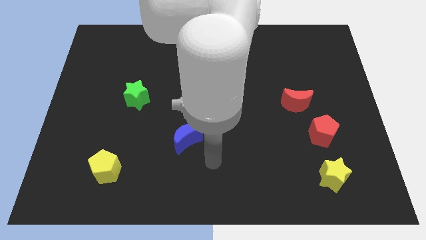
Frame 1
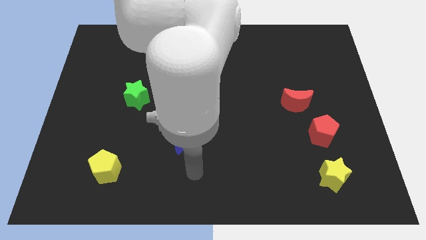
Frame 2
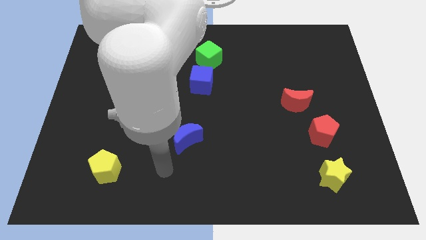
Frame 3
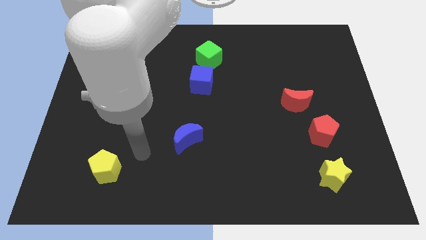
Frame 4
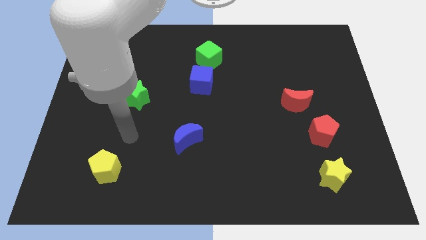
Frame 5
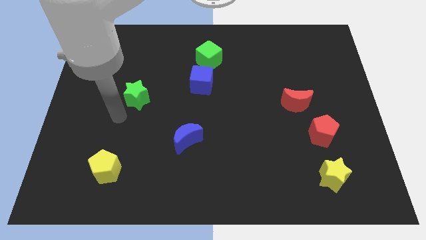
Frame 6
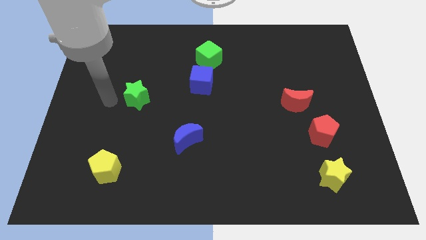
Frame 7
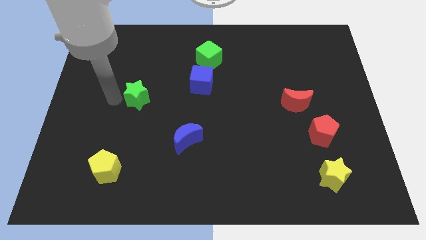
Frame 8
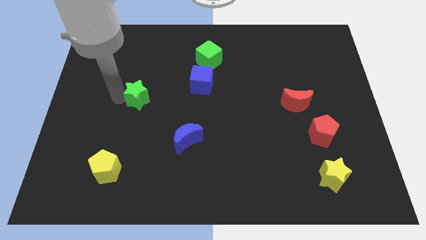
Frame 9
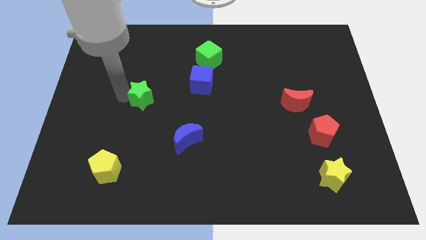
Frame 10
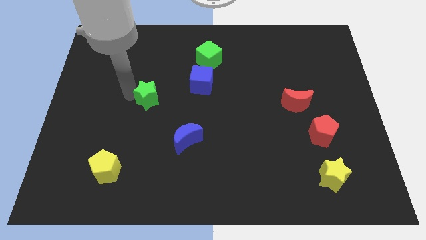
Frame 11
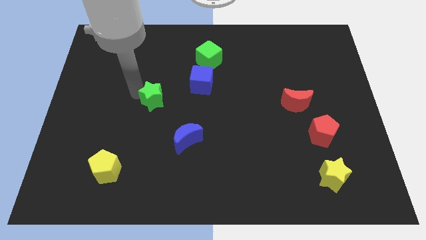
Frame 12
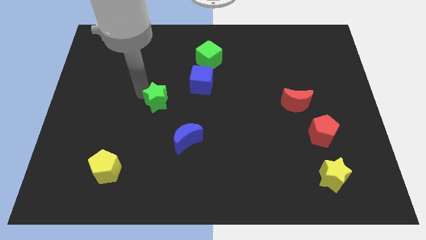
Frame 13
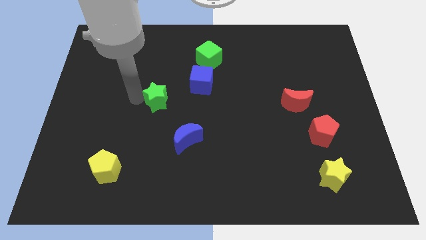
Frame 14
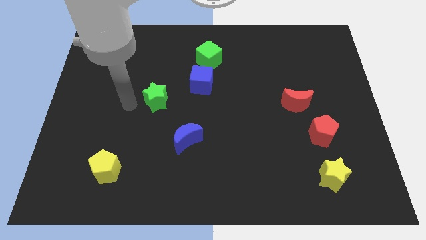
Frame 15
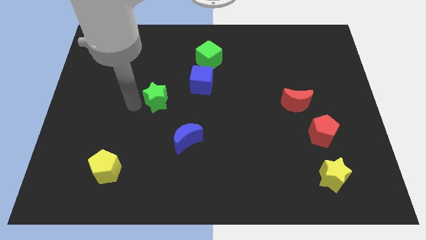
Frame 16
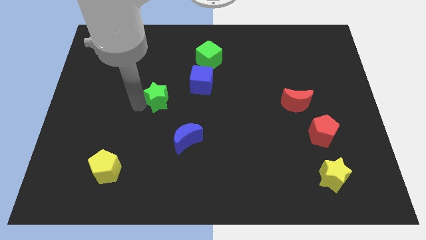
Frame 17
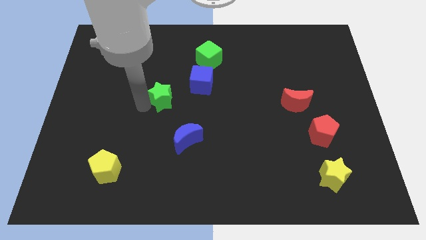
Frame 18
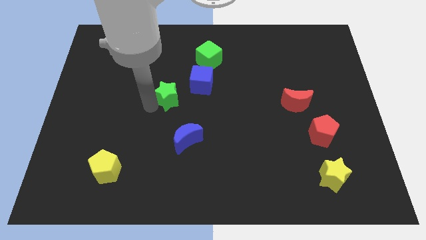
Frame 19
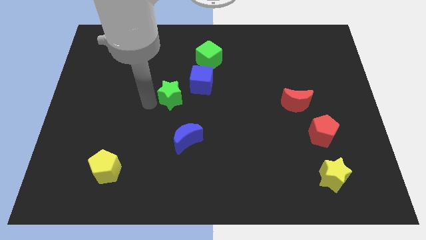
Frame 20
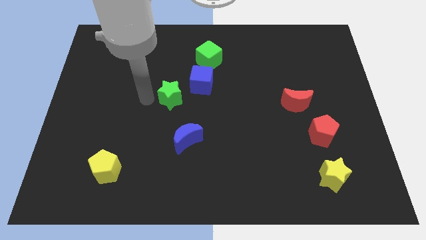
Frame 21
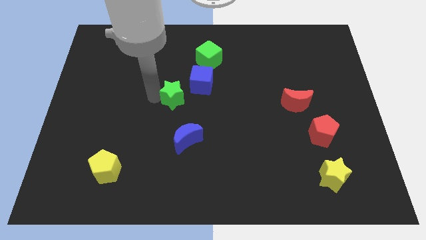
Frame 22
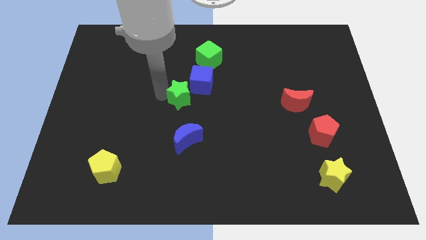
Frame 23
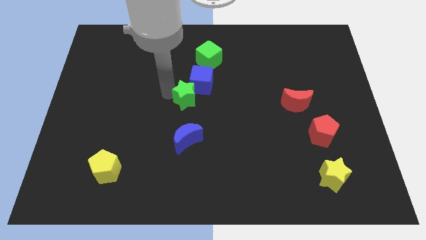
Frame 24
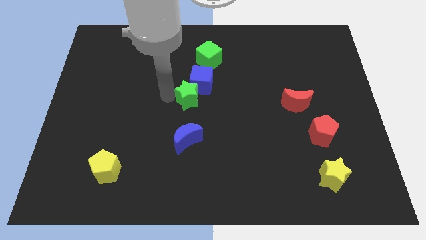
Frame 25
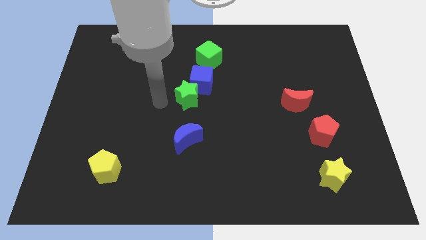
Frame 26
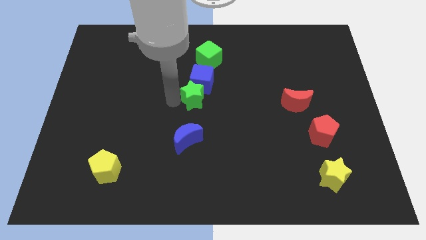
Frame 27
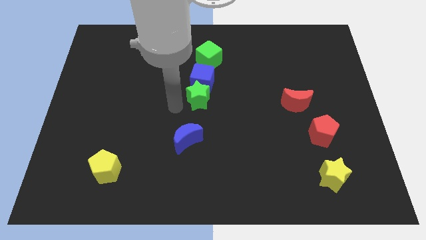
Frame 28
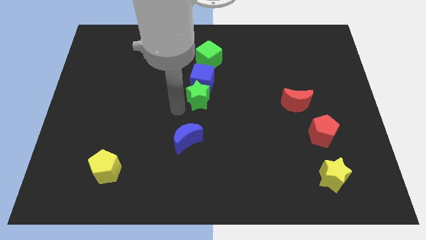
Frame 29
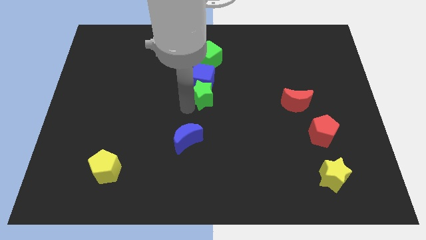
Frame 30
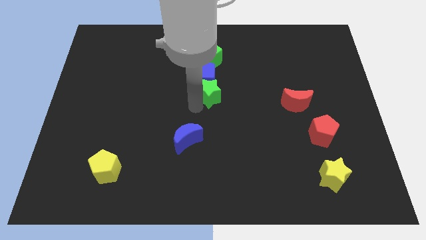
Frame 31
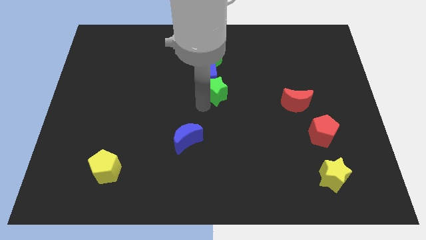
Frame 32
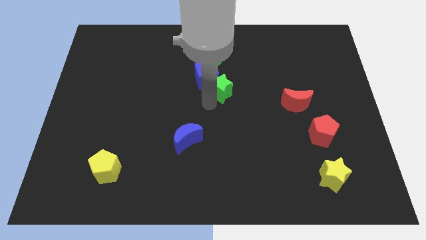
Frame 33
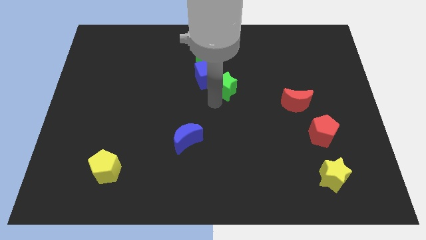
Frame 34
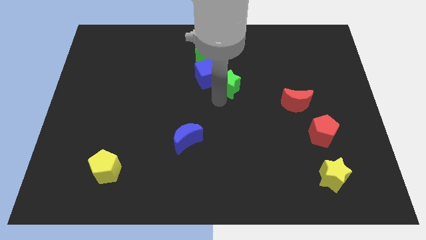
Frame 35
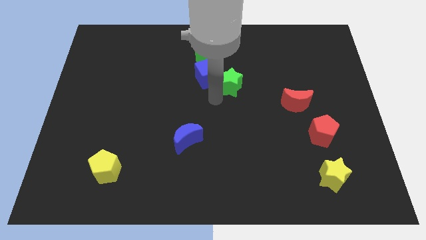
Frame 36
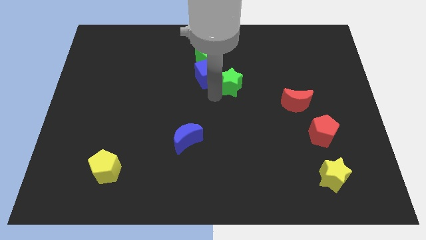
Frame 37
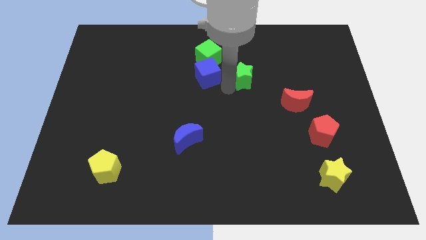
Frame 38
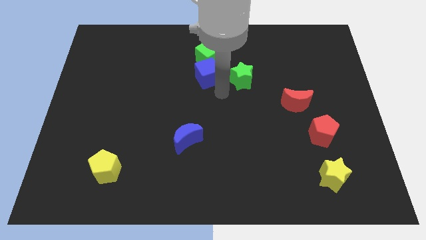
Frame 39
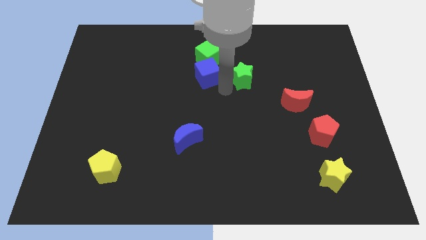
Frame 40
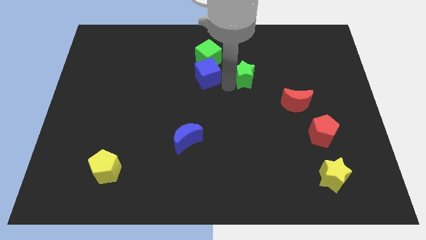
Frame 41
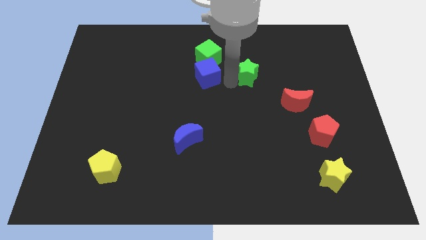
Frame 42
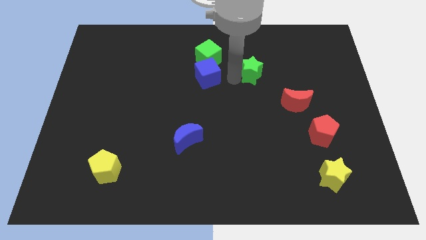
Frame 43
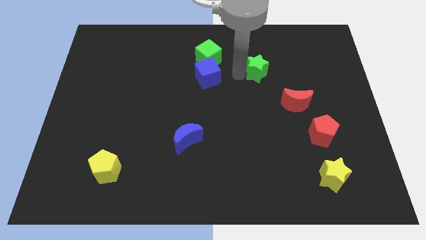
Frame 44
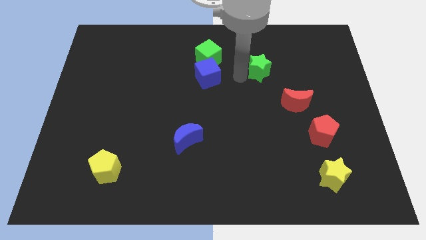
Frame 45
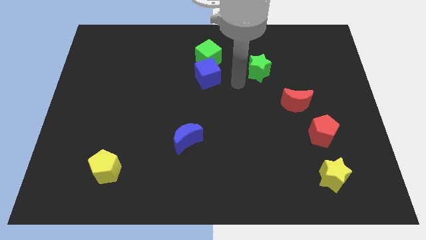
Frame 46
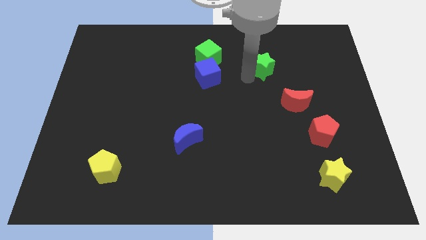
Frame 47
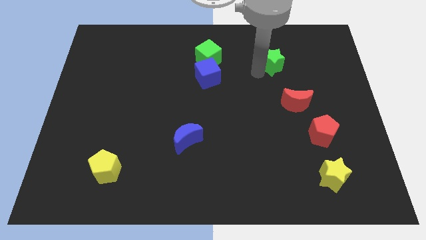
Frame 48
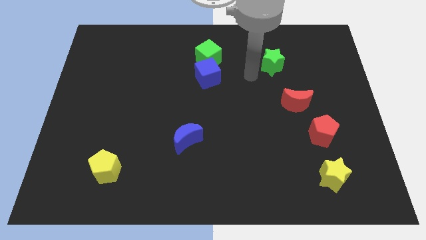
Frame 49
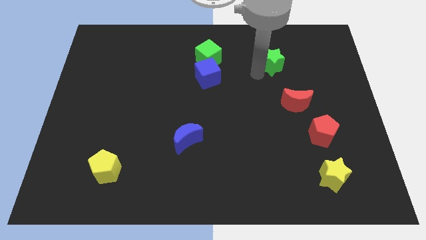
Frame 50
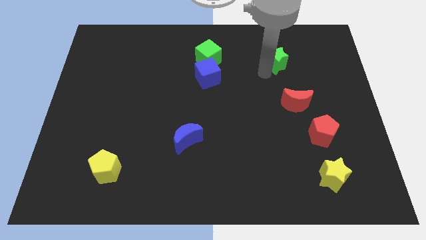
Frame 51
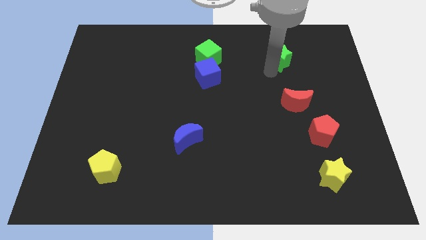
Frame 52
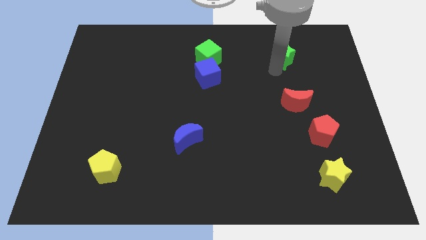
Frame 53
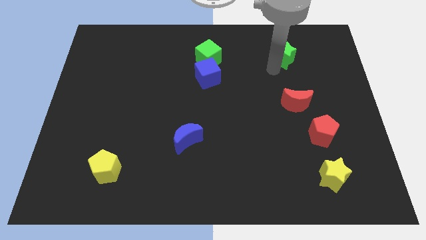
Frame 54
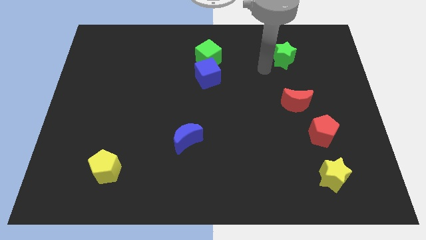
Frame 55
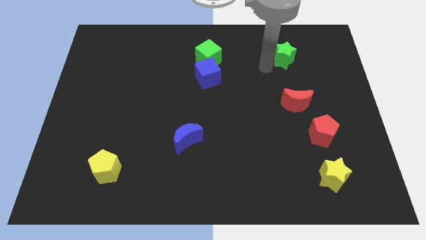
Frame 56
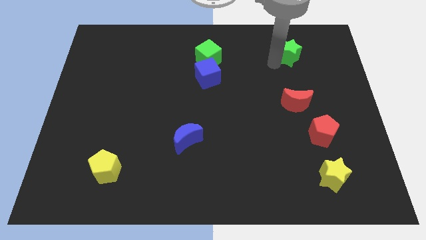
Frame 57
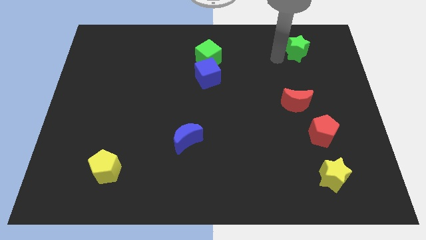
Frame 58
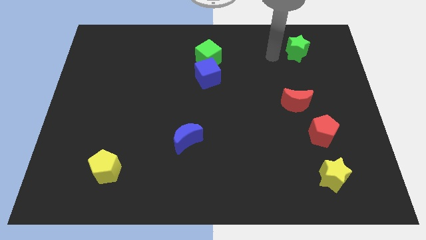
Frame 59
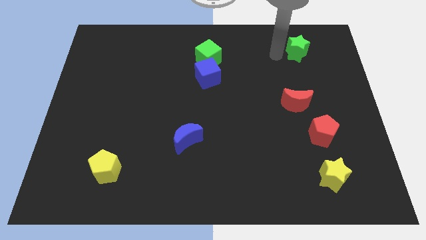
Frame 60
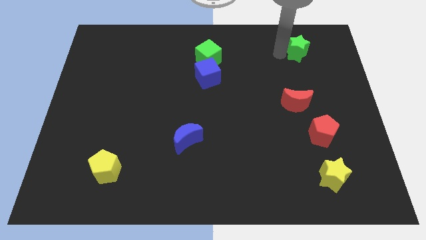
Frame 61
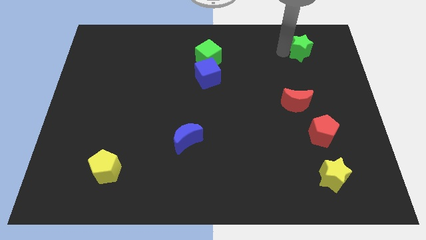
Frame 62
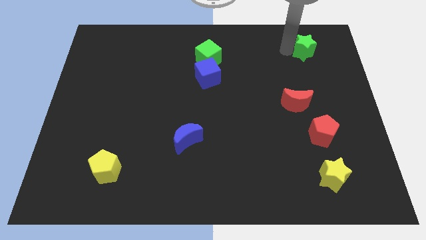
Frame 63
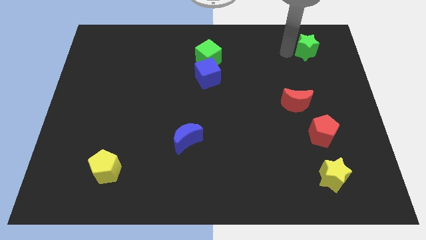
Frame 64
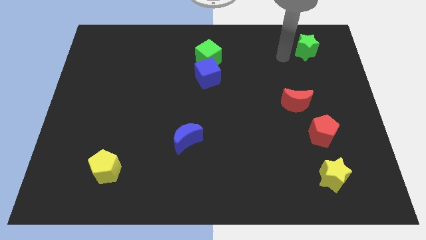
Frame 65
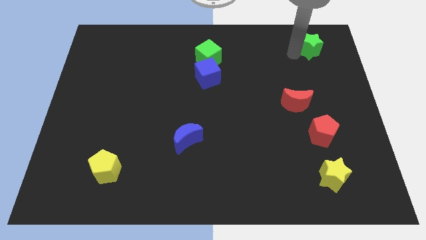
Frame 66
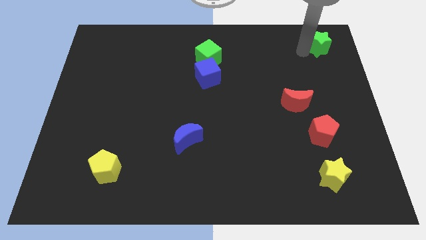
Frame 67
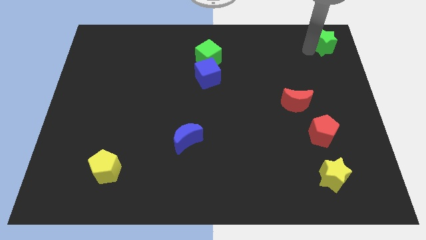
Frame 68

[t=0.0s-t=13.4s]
push the green star to the top right of the board

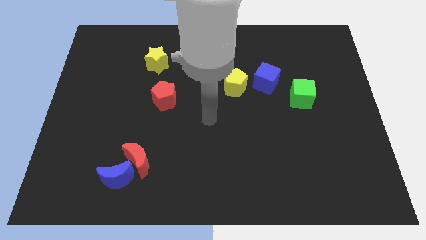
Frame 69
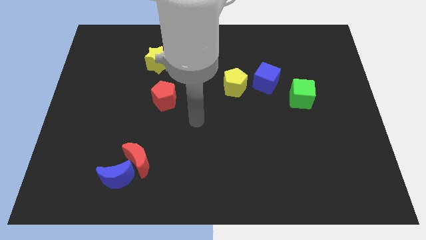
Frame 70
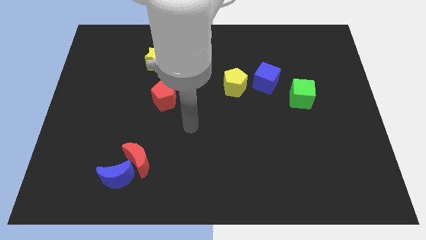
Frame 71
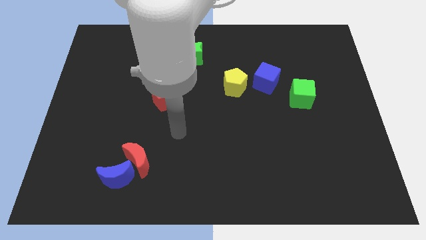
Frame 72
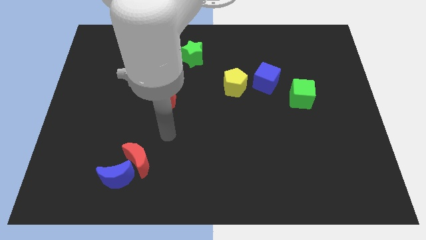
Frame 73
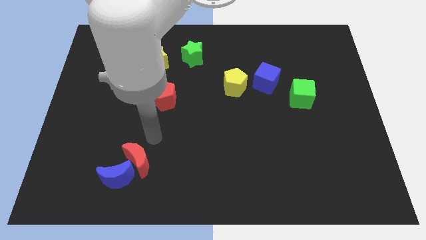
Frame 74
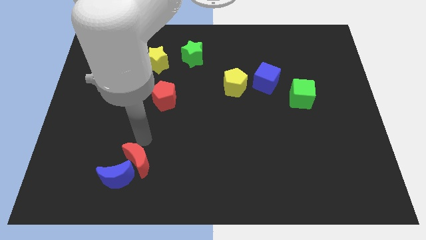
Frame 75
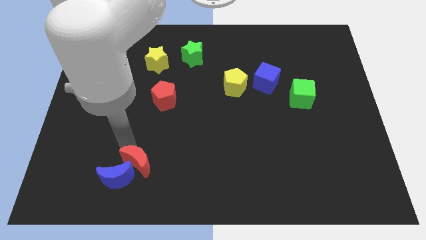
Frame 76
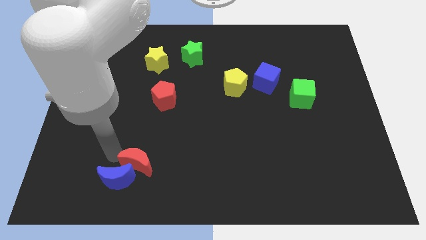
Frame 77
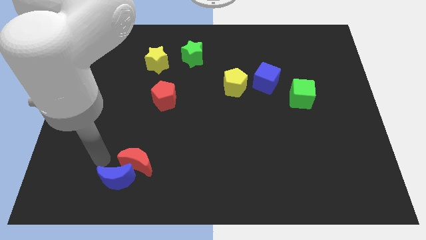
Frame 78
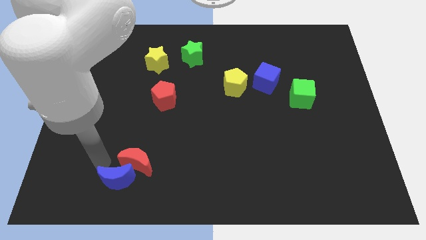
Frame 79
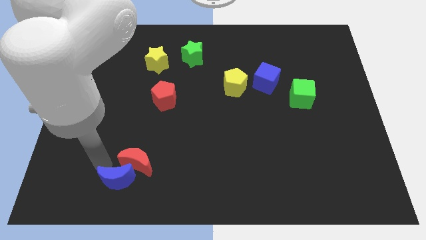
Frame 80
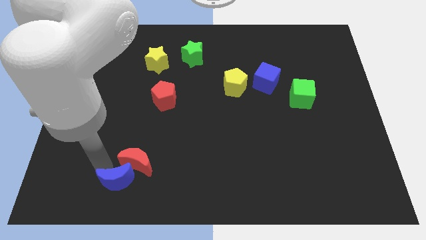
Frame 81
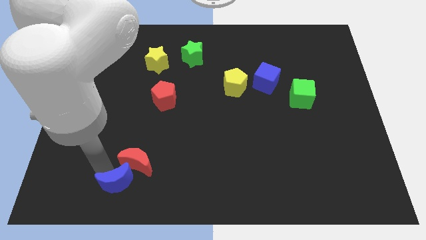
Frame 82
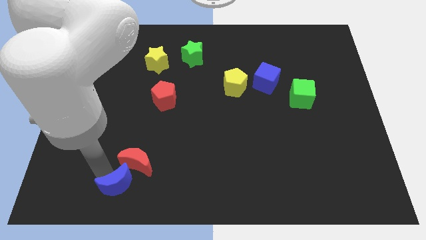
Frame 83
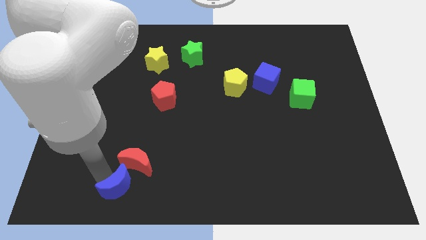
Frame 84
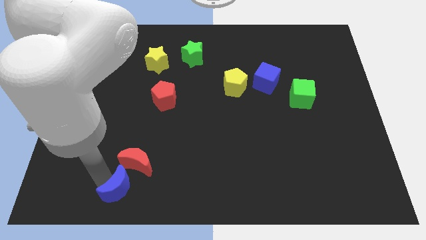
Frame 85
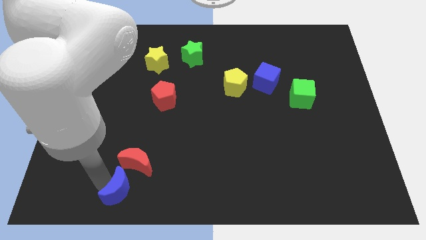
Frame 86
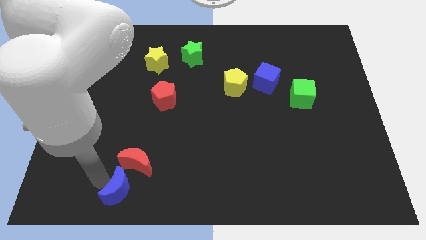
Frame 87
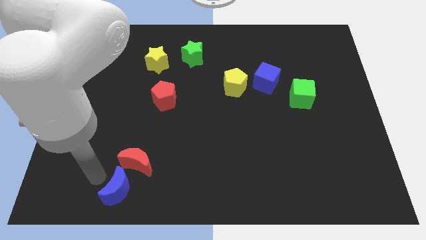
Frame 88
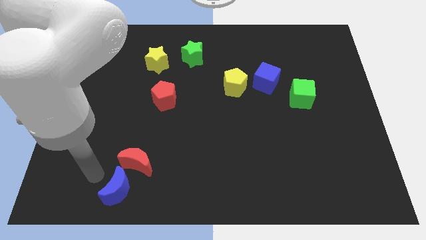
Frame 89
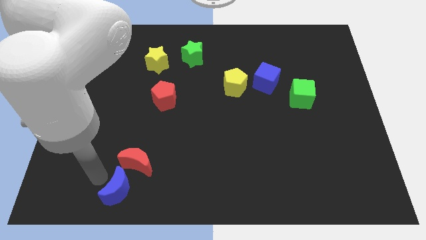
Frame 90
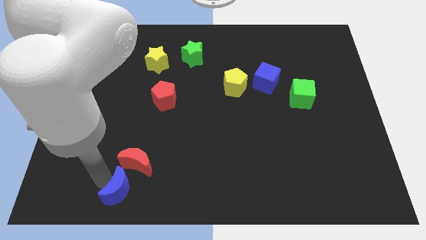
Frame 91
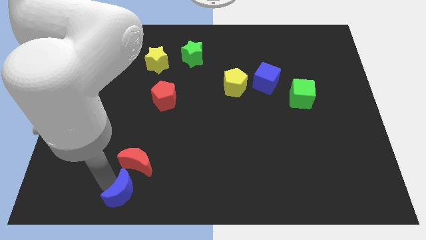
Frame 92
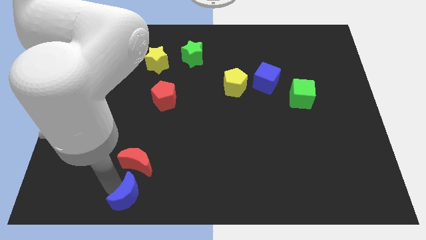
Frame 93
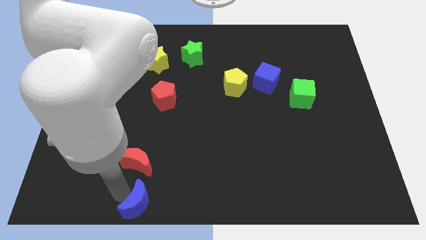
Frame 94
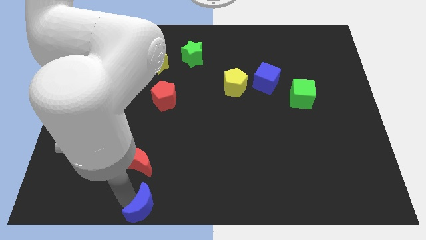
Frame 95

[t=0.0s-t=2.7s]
slide the blue moon to the bottom
